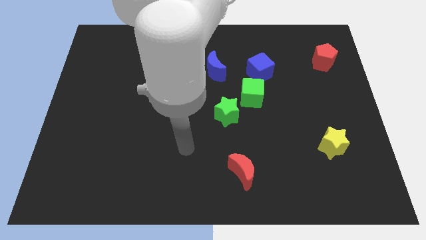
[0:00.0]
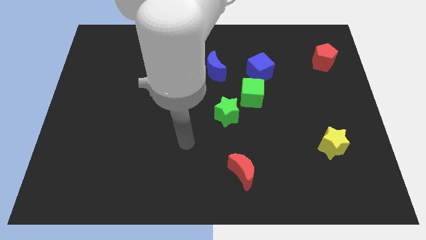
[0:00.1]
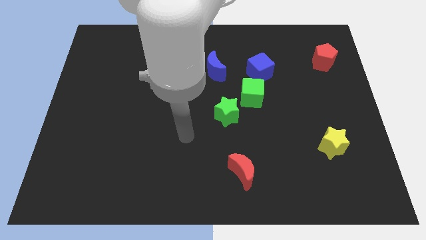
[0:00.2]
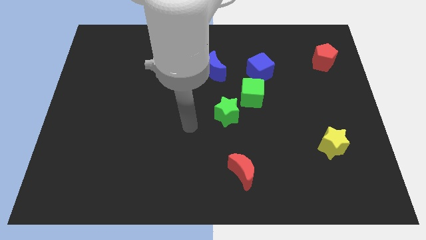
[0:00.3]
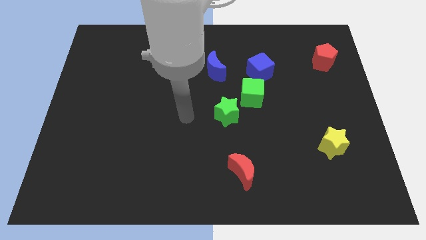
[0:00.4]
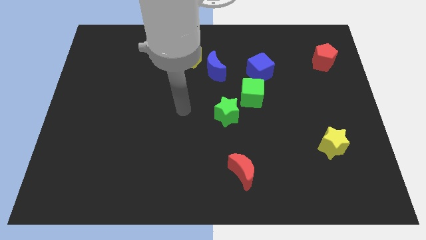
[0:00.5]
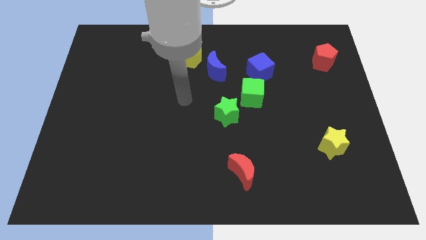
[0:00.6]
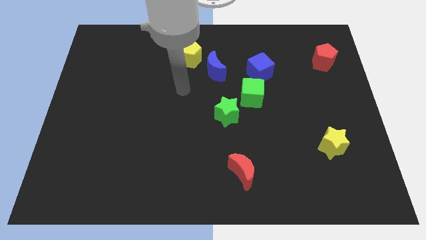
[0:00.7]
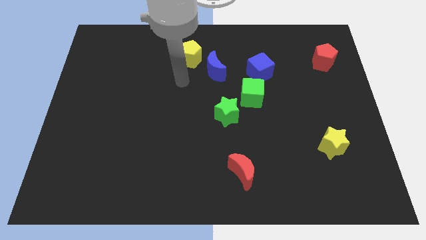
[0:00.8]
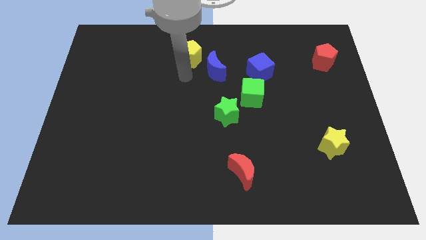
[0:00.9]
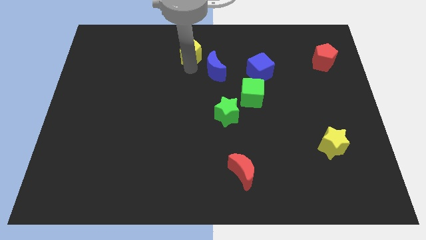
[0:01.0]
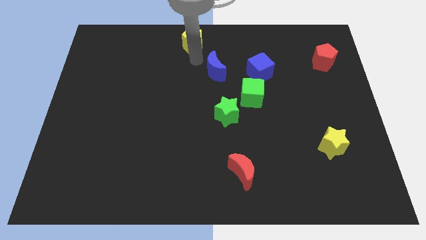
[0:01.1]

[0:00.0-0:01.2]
pull the blue moon apart from the yellow pentagon

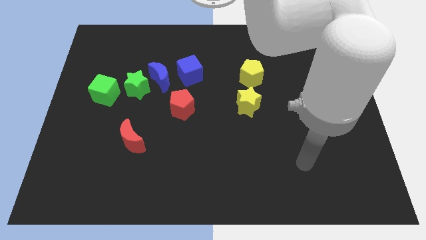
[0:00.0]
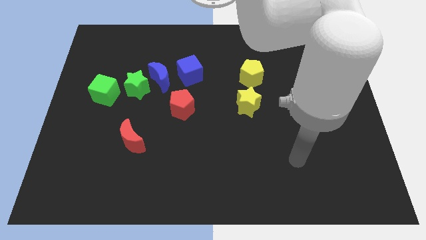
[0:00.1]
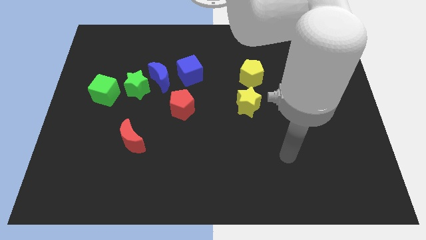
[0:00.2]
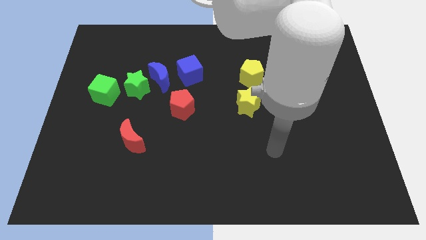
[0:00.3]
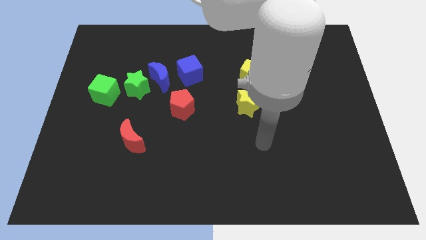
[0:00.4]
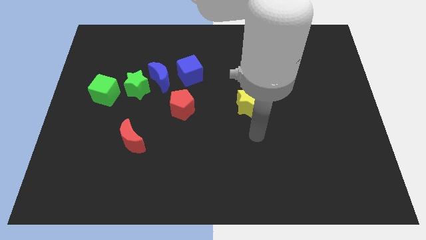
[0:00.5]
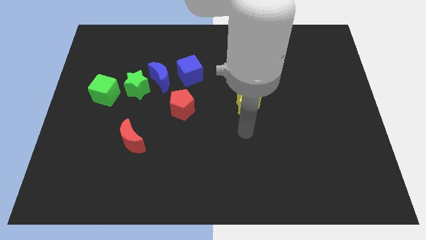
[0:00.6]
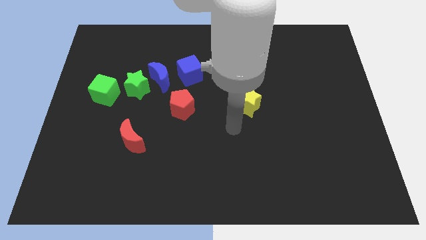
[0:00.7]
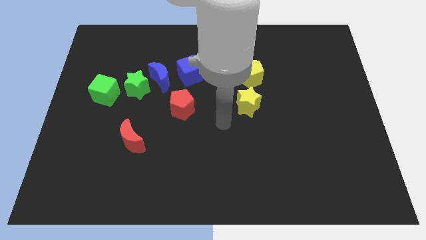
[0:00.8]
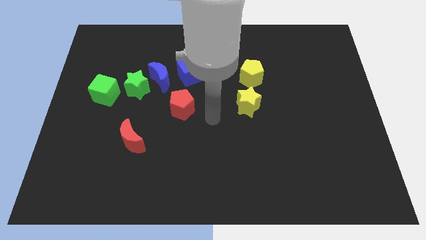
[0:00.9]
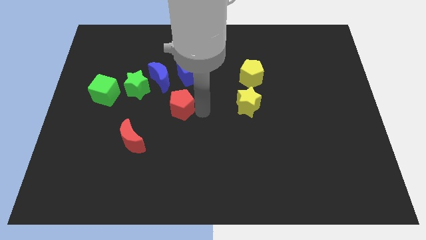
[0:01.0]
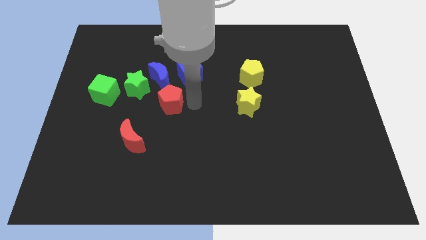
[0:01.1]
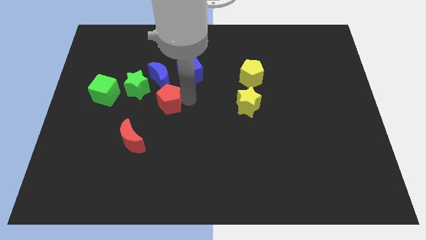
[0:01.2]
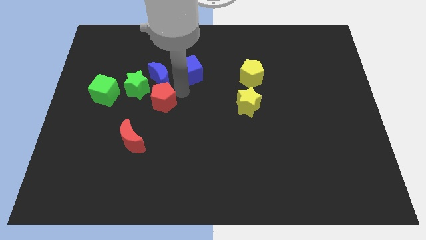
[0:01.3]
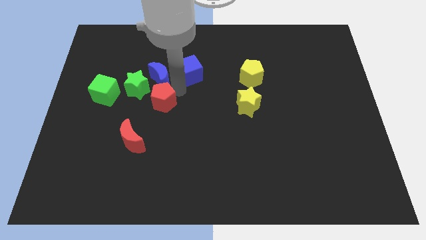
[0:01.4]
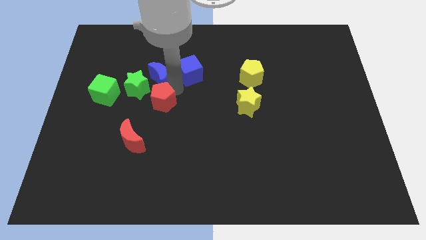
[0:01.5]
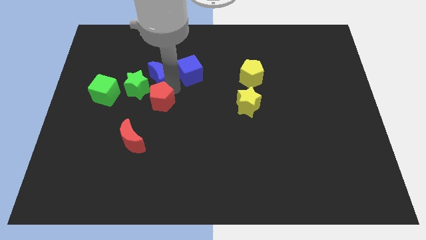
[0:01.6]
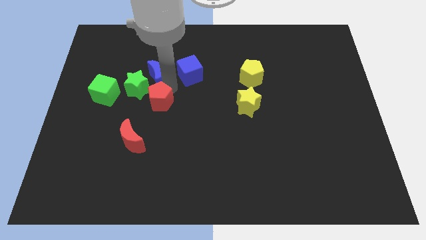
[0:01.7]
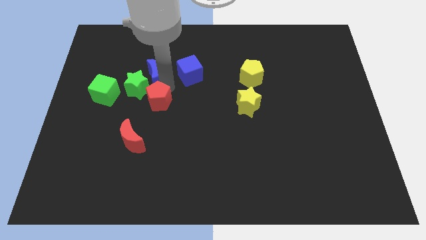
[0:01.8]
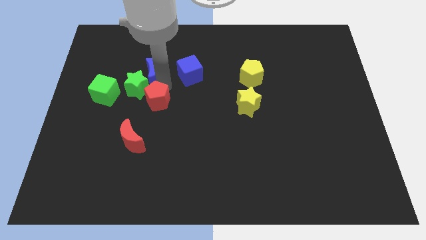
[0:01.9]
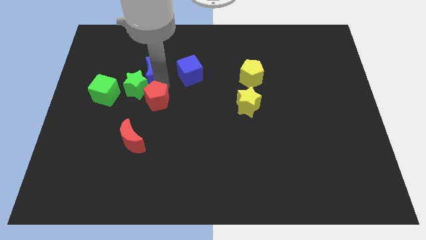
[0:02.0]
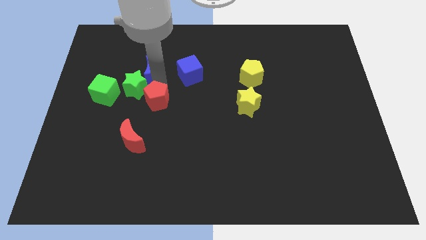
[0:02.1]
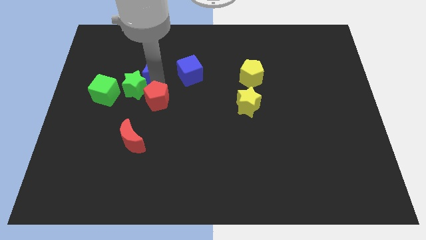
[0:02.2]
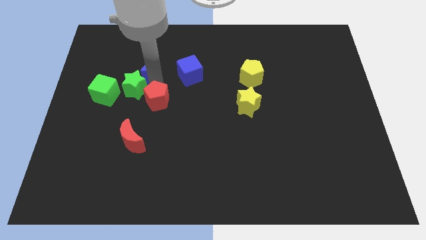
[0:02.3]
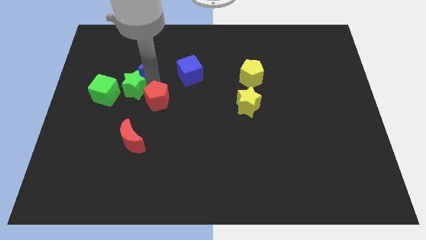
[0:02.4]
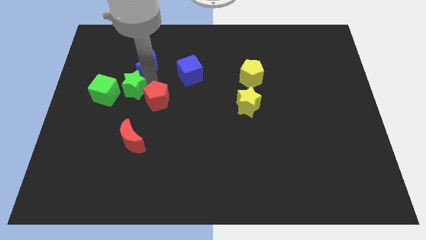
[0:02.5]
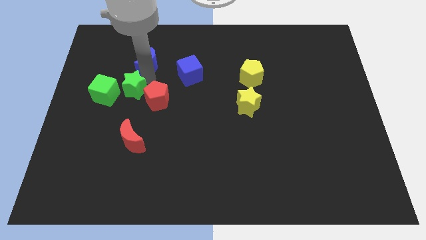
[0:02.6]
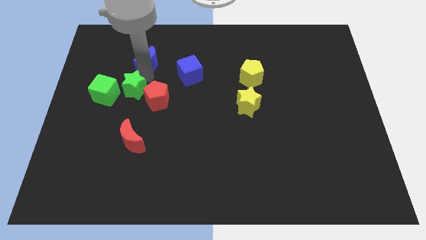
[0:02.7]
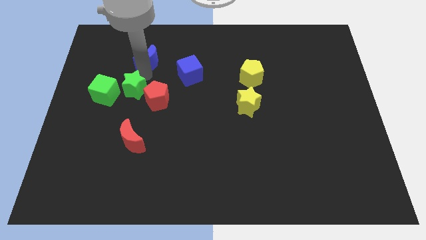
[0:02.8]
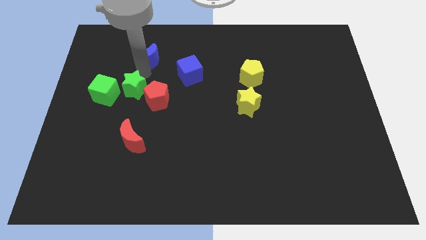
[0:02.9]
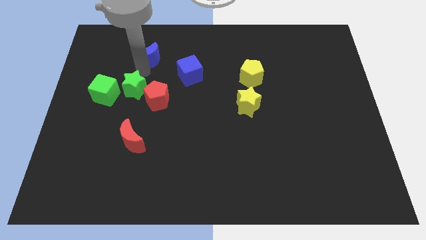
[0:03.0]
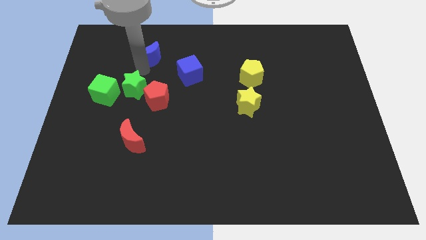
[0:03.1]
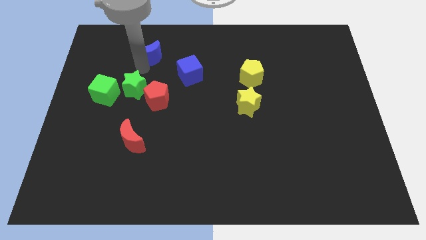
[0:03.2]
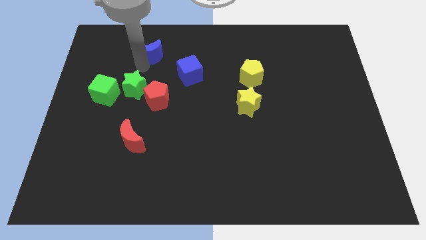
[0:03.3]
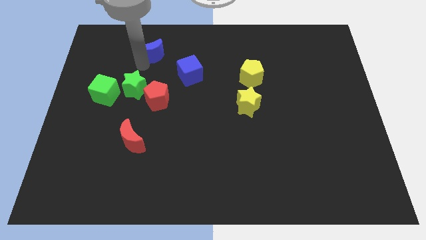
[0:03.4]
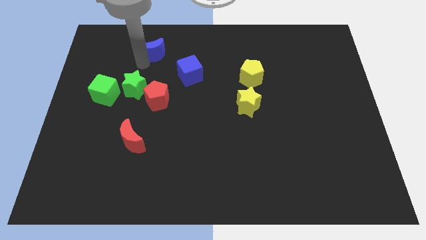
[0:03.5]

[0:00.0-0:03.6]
pull the blue moon apart from the green star and blue cube

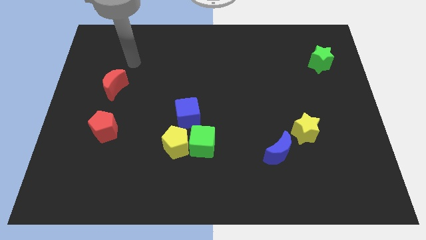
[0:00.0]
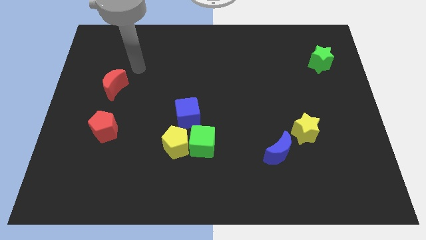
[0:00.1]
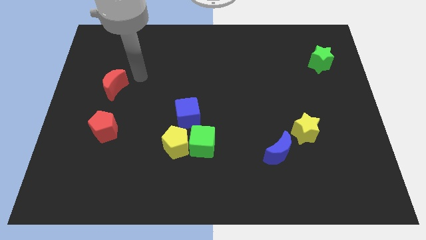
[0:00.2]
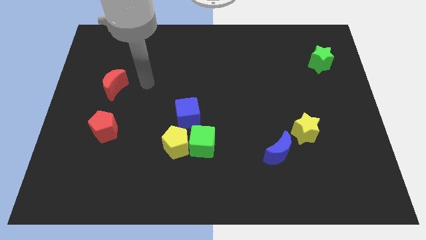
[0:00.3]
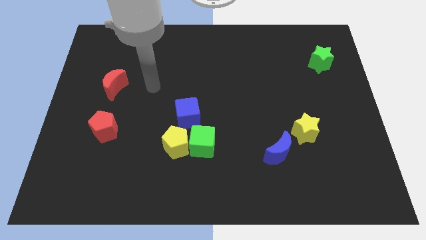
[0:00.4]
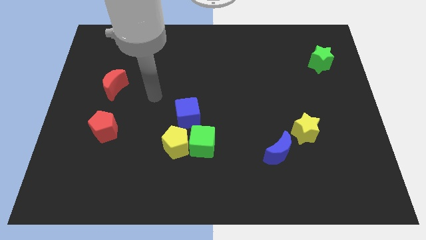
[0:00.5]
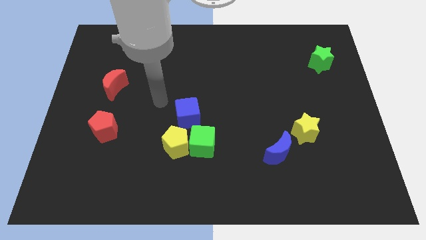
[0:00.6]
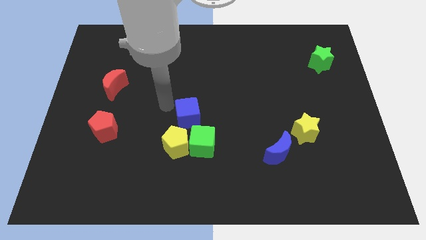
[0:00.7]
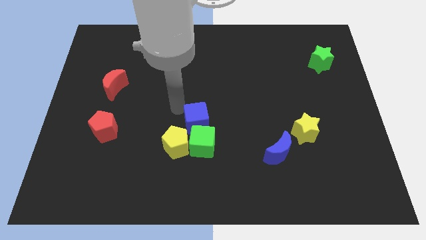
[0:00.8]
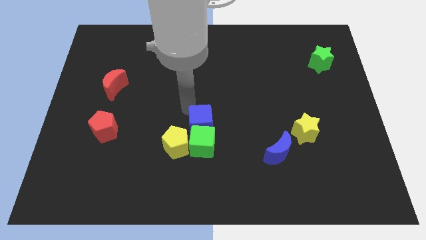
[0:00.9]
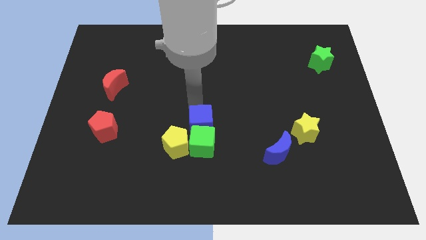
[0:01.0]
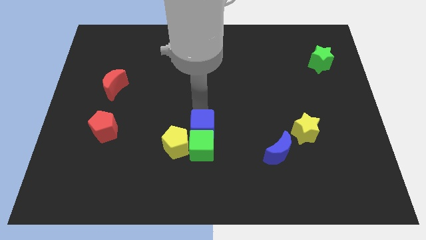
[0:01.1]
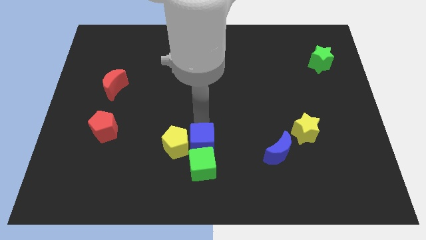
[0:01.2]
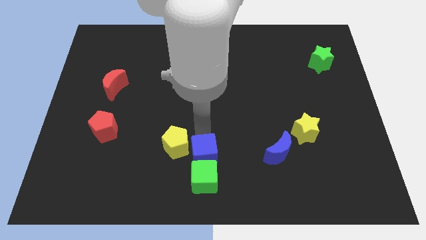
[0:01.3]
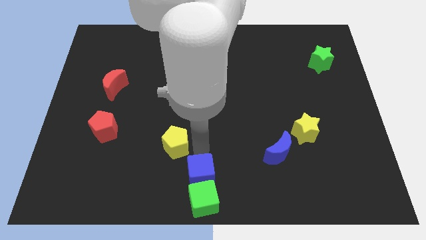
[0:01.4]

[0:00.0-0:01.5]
move the yellow pentagon away from the green cube and blue cube

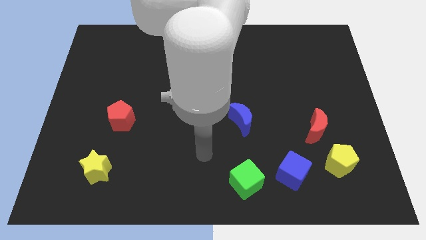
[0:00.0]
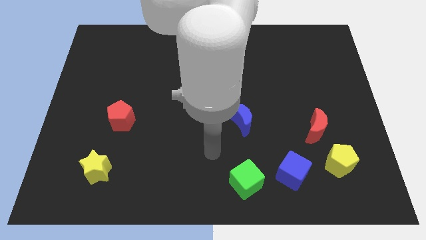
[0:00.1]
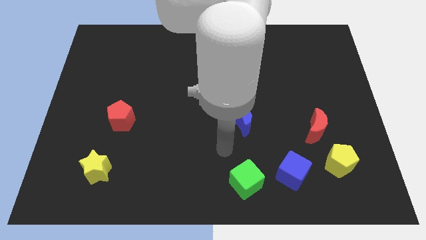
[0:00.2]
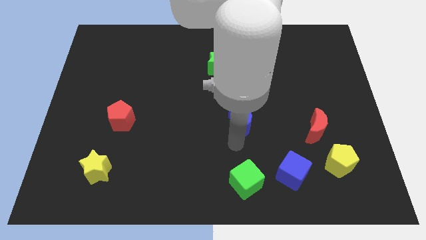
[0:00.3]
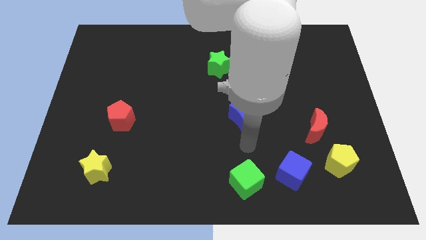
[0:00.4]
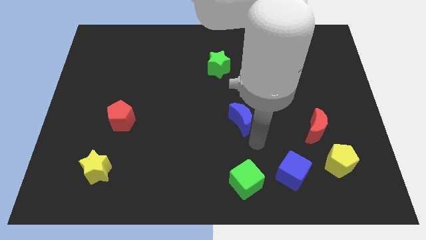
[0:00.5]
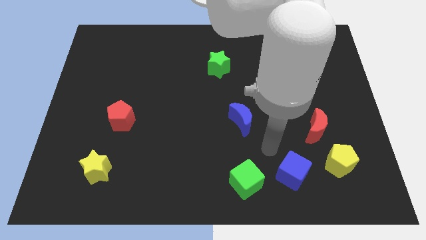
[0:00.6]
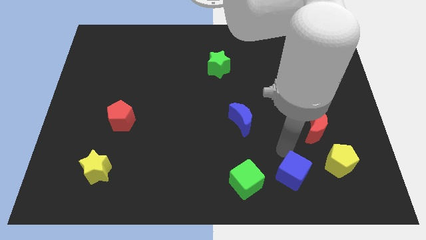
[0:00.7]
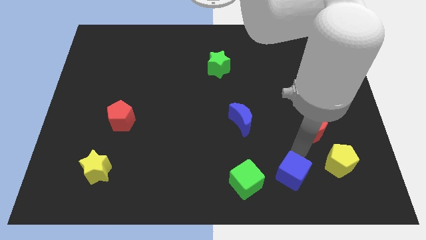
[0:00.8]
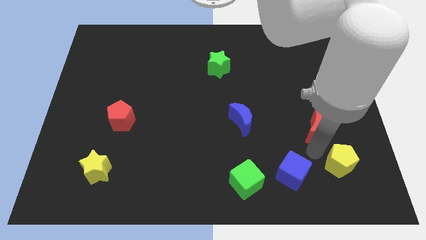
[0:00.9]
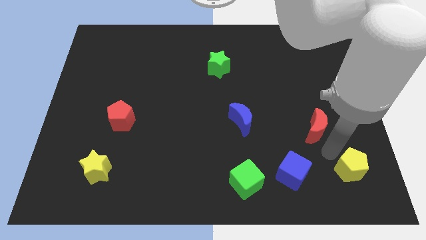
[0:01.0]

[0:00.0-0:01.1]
move the red moon away from the yellow pentagon

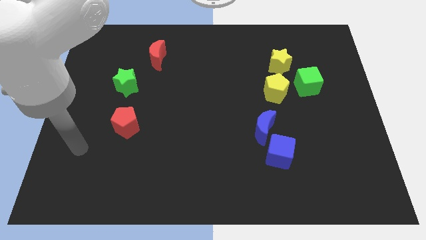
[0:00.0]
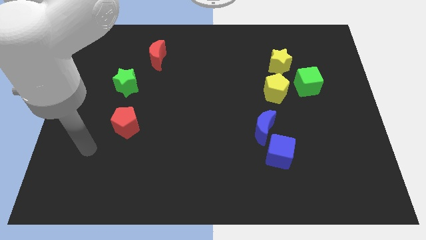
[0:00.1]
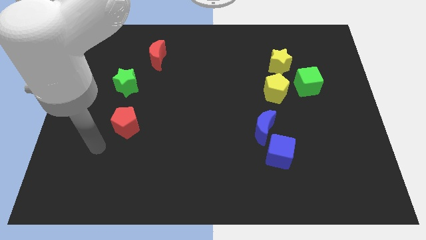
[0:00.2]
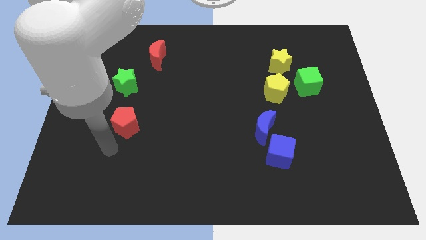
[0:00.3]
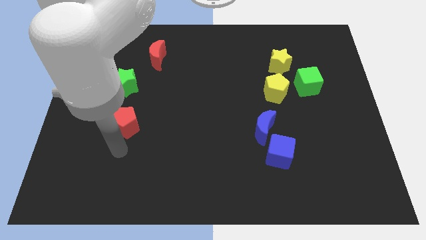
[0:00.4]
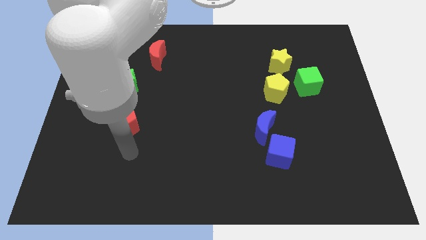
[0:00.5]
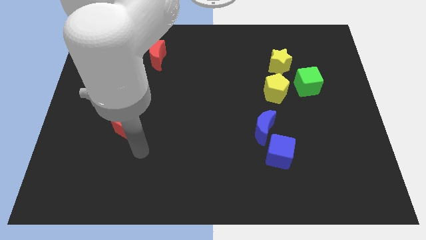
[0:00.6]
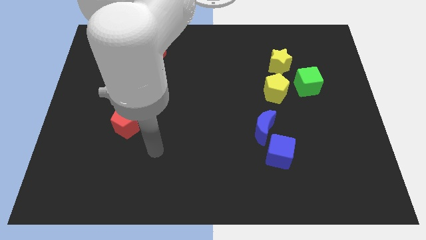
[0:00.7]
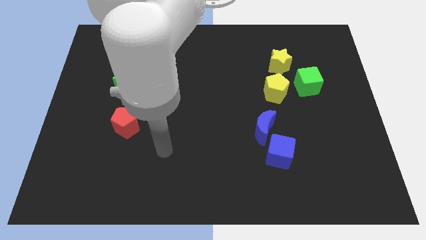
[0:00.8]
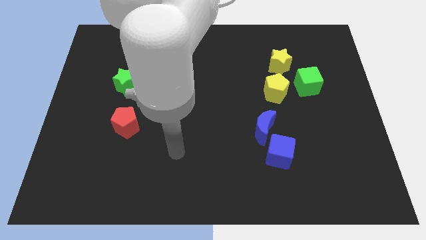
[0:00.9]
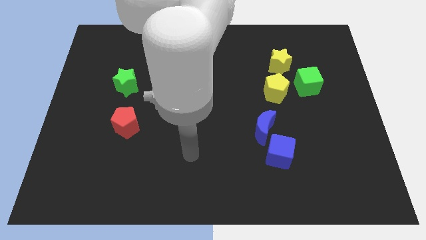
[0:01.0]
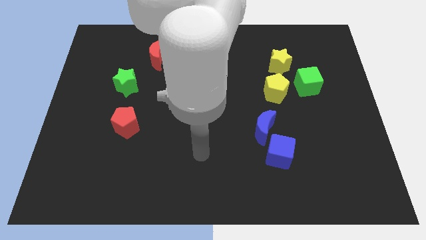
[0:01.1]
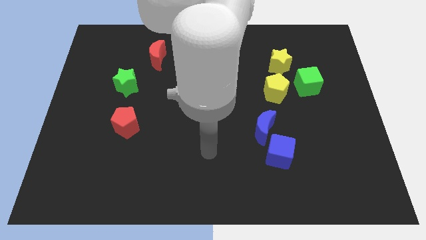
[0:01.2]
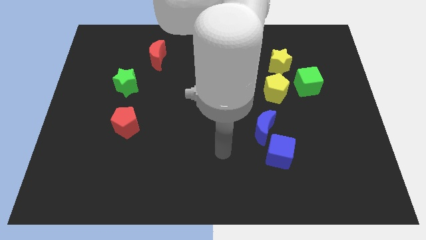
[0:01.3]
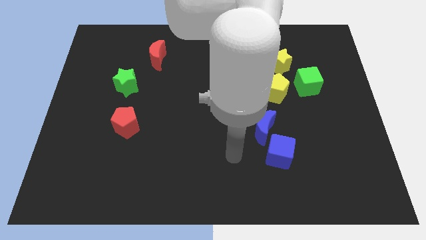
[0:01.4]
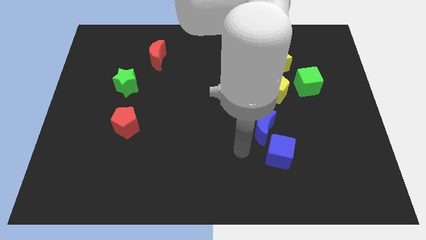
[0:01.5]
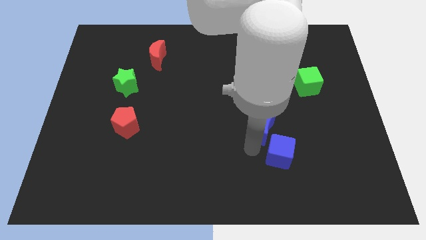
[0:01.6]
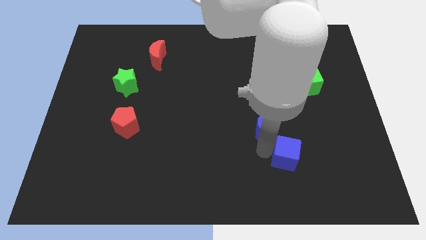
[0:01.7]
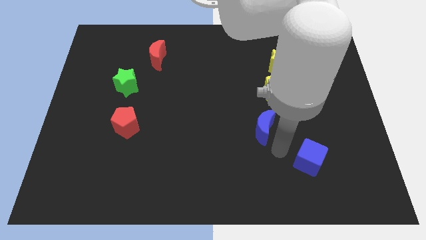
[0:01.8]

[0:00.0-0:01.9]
separate the blue moon from the blue cube
